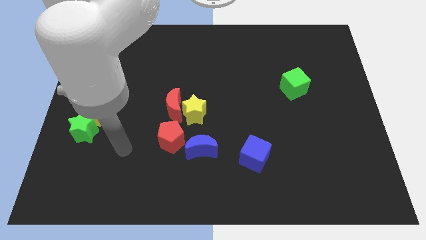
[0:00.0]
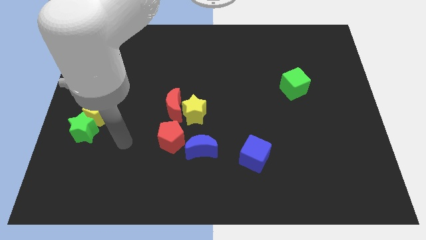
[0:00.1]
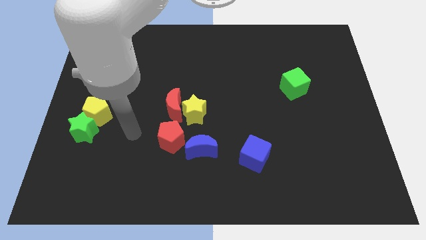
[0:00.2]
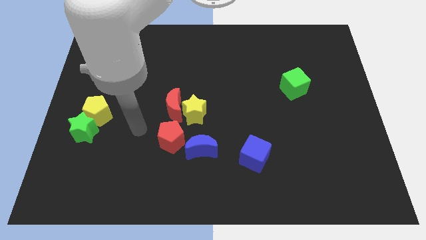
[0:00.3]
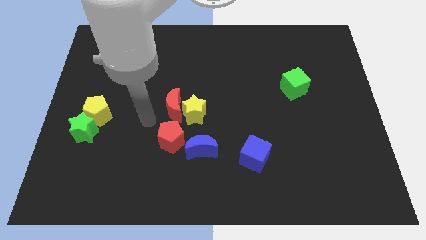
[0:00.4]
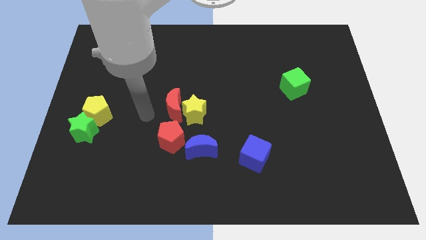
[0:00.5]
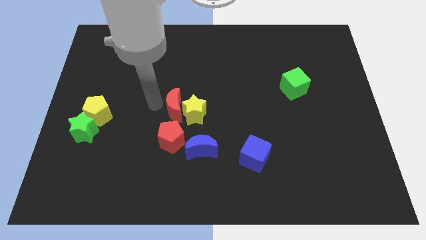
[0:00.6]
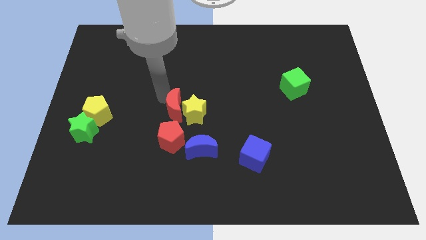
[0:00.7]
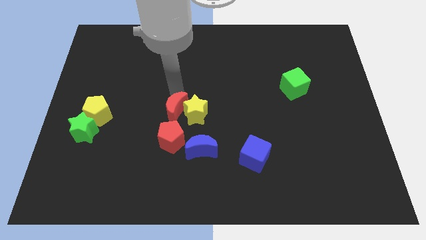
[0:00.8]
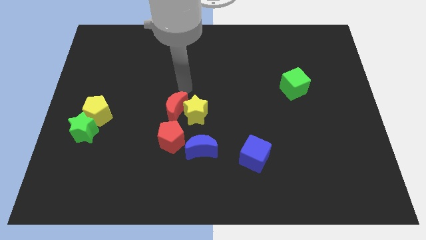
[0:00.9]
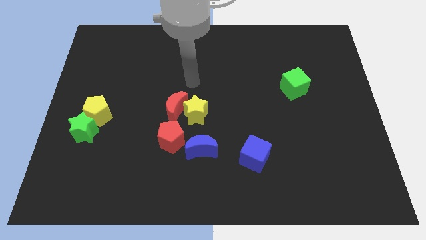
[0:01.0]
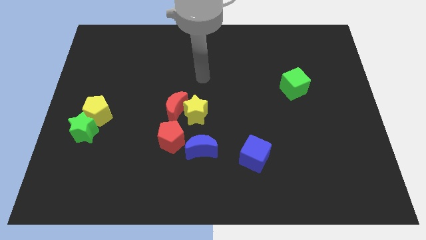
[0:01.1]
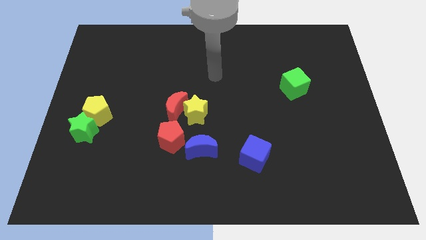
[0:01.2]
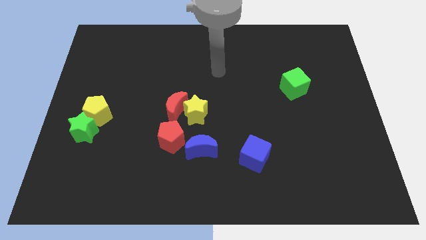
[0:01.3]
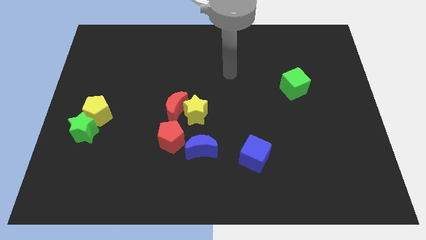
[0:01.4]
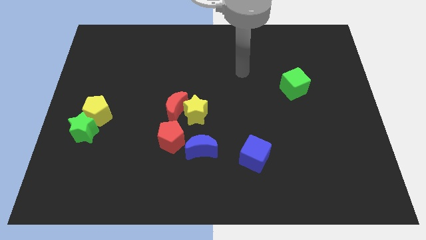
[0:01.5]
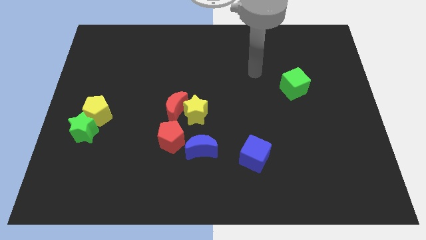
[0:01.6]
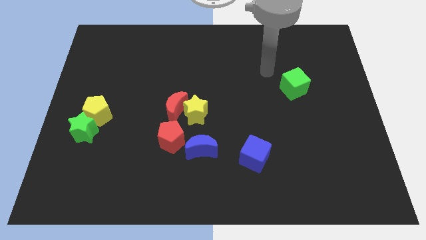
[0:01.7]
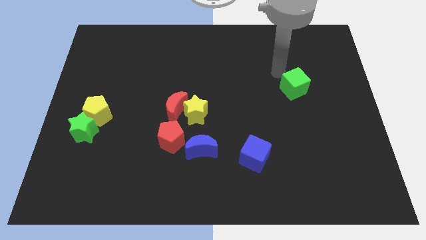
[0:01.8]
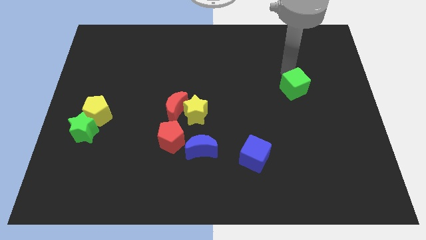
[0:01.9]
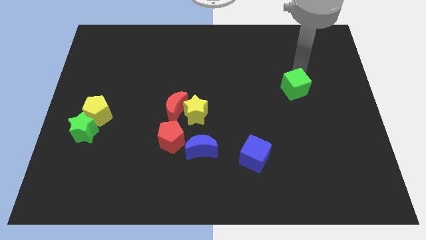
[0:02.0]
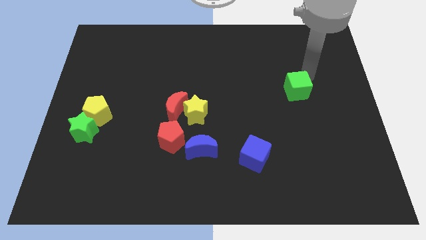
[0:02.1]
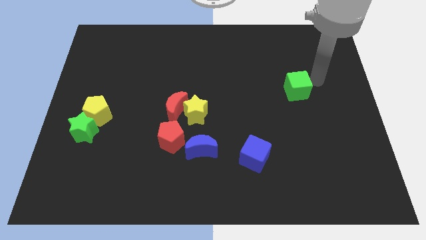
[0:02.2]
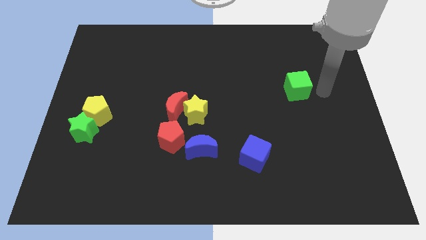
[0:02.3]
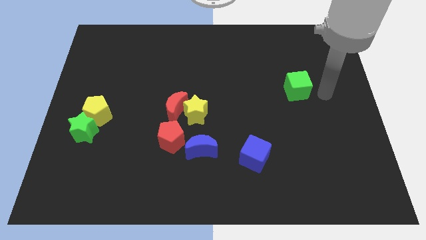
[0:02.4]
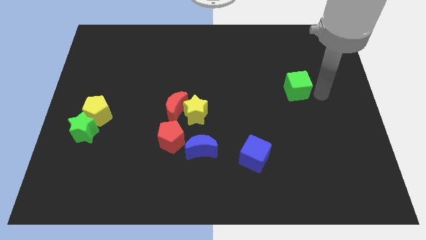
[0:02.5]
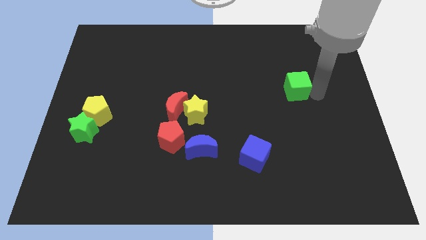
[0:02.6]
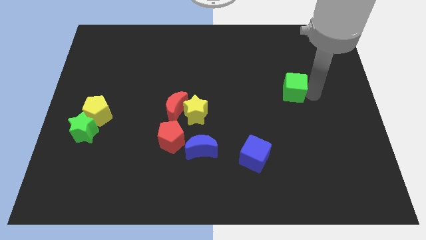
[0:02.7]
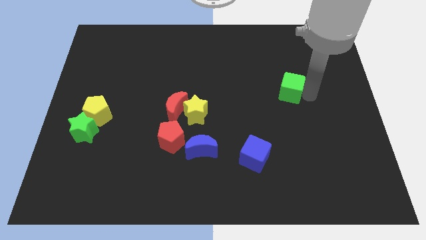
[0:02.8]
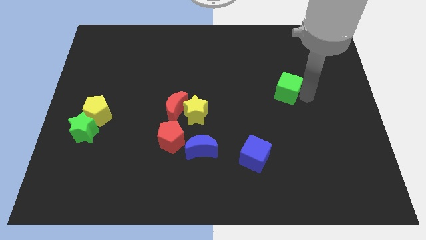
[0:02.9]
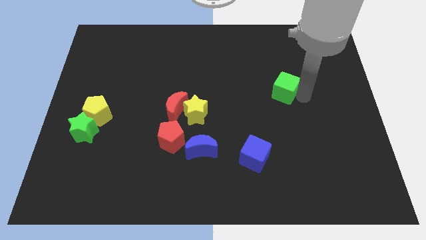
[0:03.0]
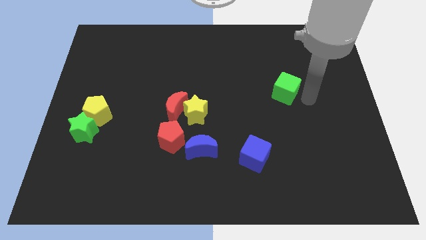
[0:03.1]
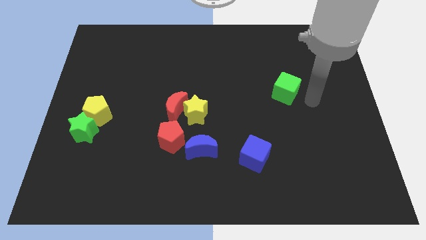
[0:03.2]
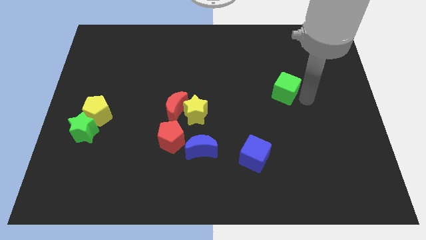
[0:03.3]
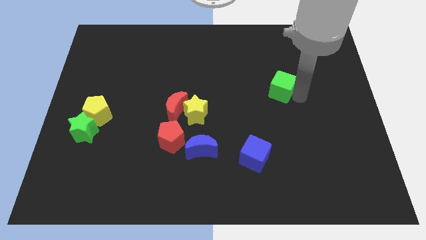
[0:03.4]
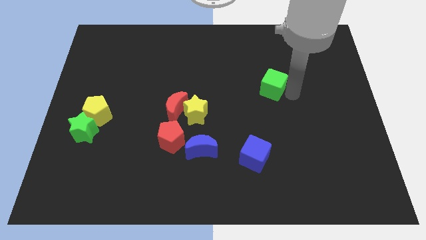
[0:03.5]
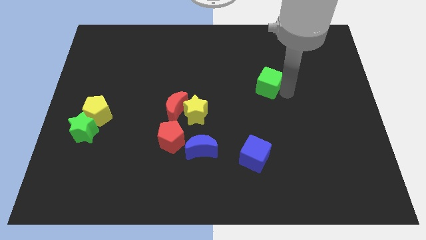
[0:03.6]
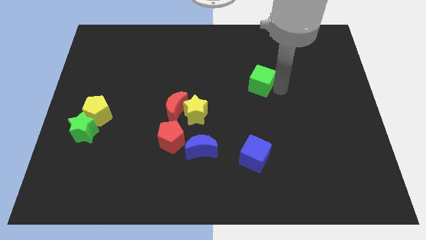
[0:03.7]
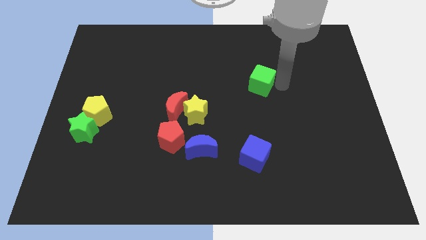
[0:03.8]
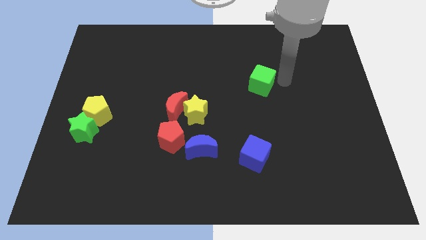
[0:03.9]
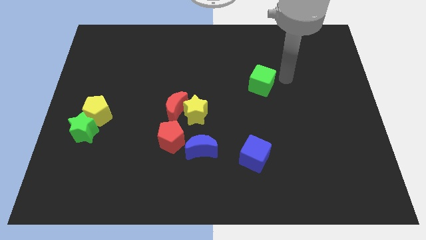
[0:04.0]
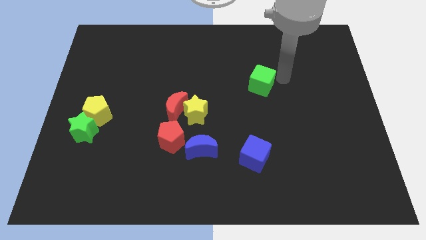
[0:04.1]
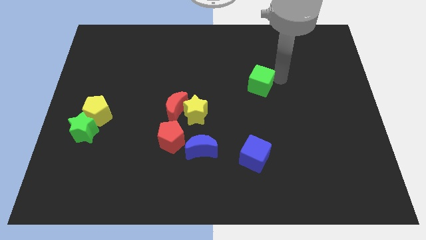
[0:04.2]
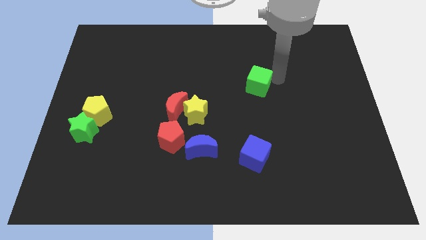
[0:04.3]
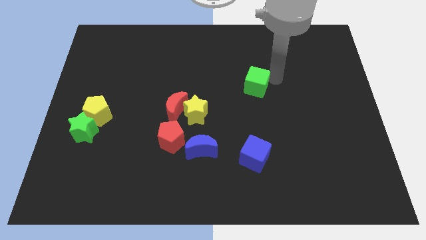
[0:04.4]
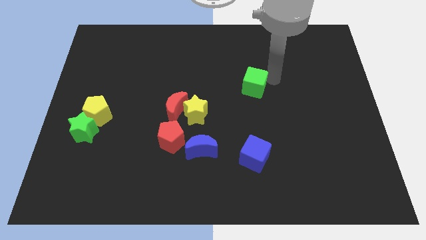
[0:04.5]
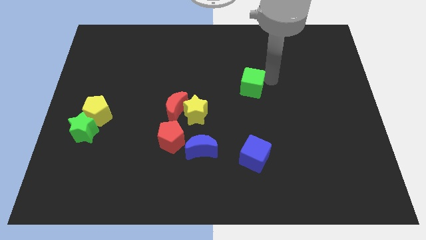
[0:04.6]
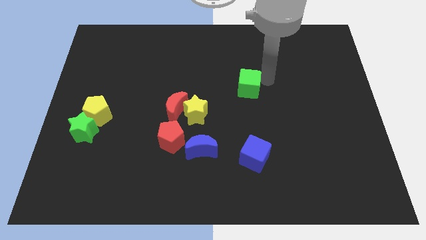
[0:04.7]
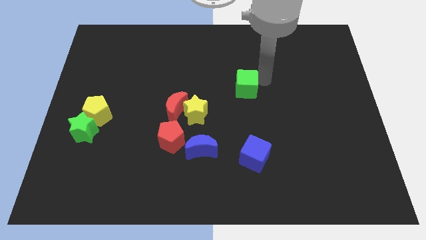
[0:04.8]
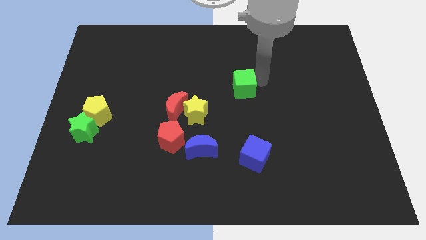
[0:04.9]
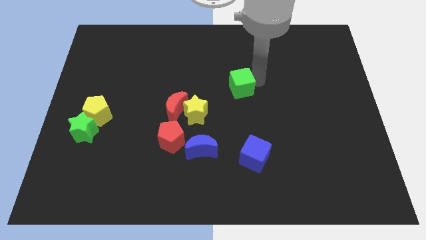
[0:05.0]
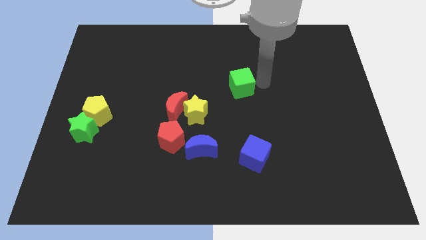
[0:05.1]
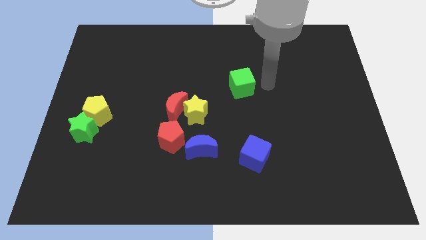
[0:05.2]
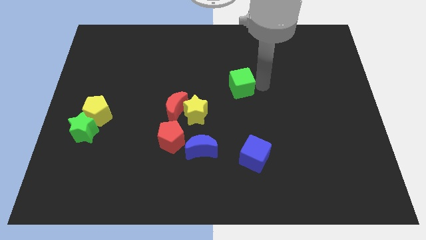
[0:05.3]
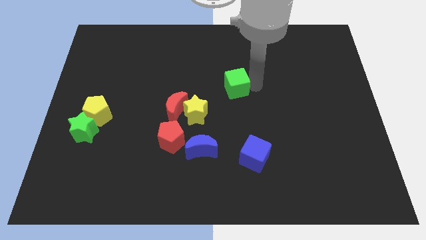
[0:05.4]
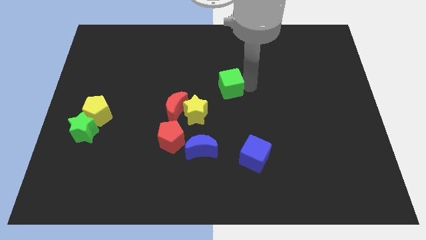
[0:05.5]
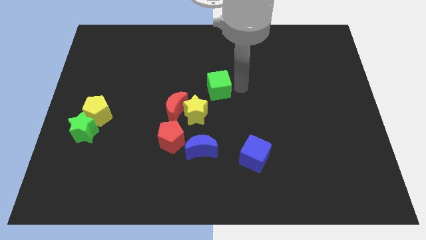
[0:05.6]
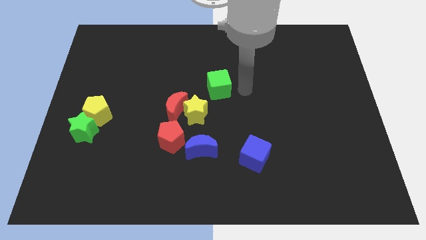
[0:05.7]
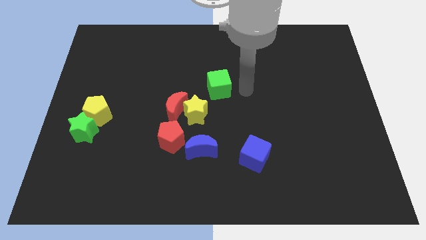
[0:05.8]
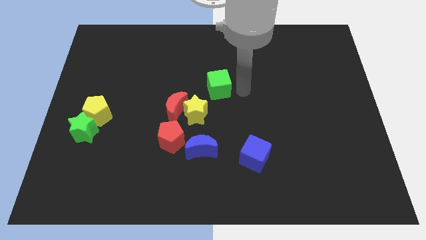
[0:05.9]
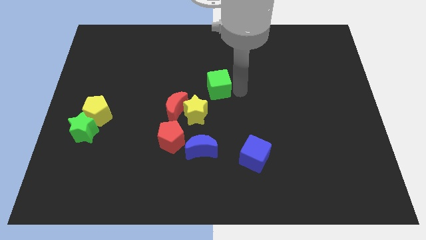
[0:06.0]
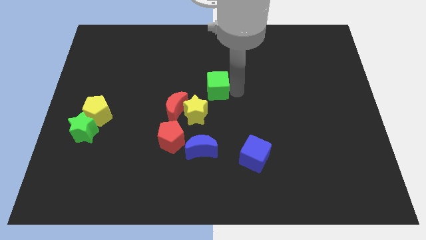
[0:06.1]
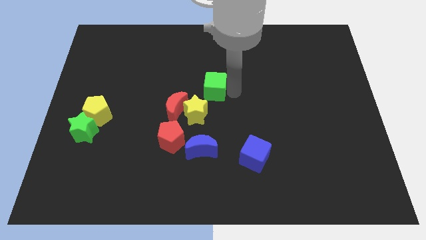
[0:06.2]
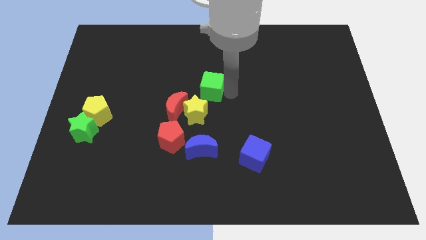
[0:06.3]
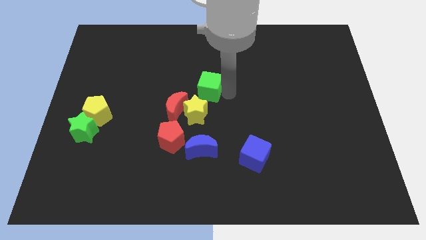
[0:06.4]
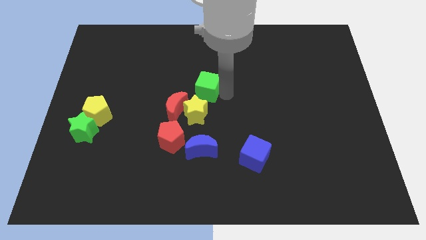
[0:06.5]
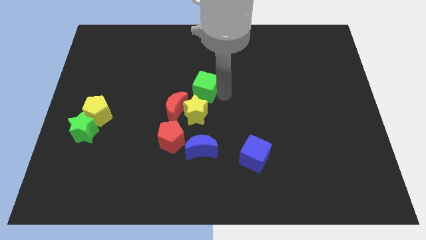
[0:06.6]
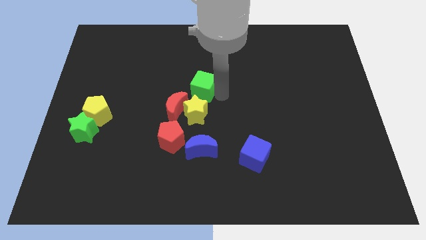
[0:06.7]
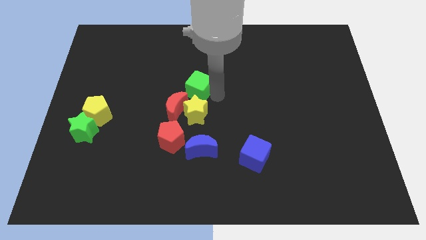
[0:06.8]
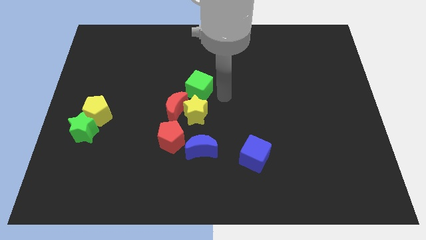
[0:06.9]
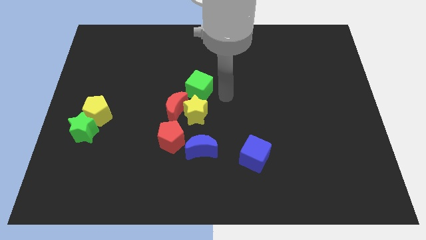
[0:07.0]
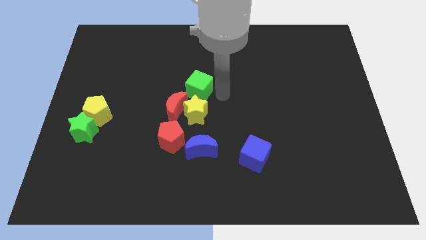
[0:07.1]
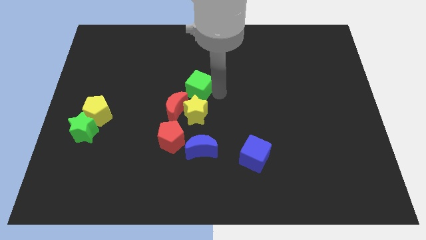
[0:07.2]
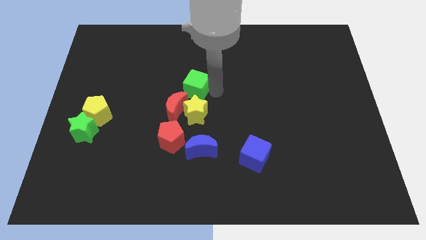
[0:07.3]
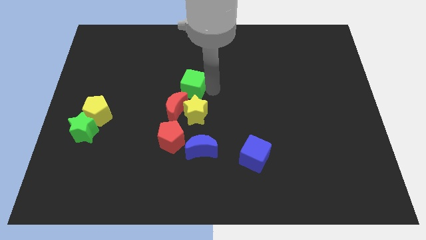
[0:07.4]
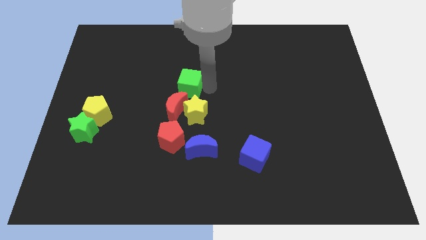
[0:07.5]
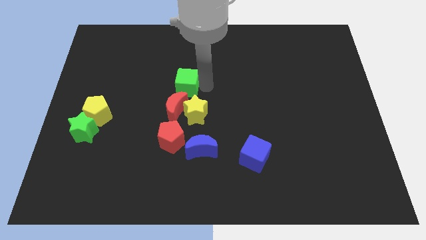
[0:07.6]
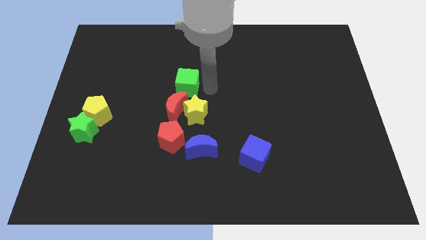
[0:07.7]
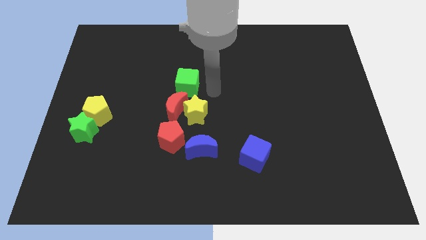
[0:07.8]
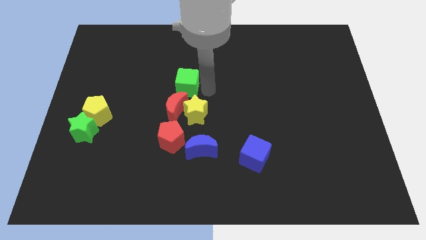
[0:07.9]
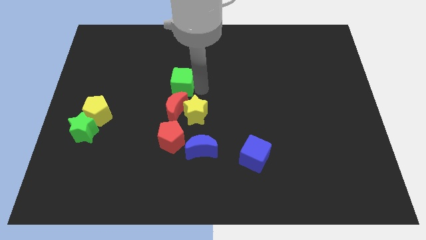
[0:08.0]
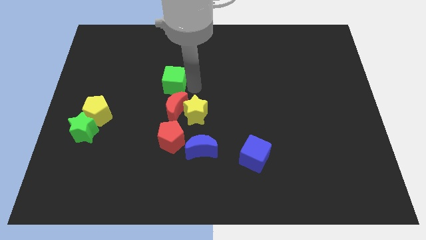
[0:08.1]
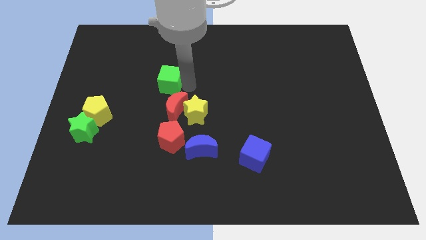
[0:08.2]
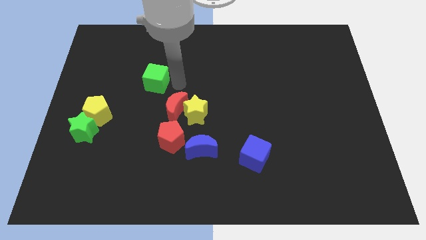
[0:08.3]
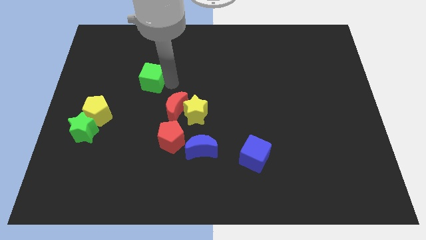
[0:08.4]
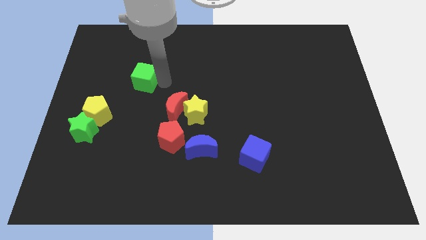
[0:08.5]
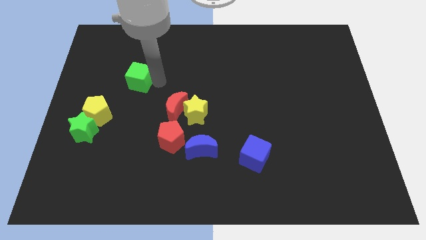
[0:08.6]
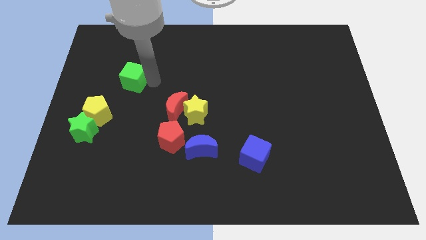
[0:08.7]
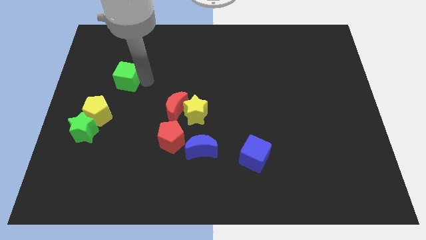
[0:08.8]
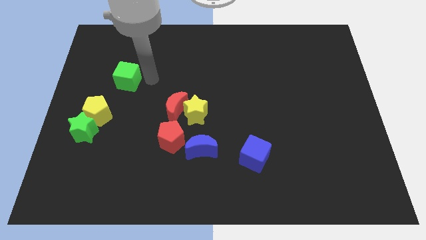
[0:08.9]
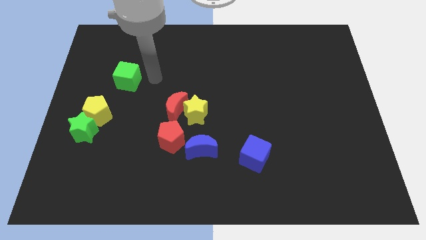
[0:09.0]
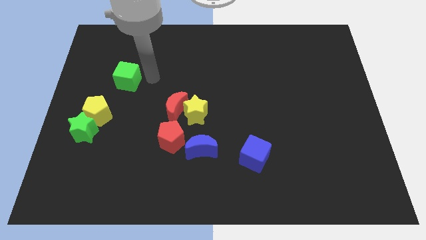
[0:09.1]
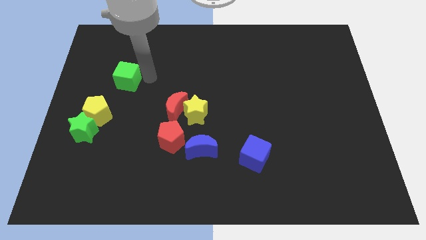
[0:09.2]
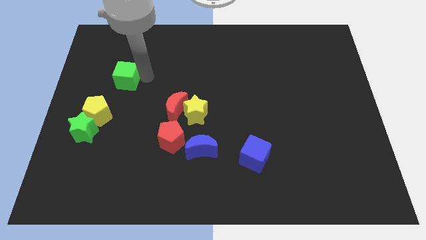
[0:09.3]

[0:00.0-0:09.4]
put the green cube to the top side of the yellow pentagon
